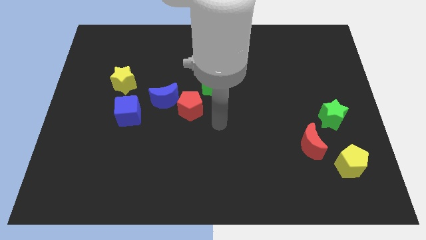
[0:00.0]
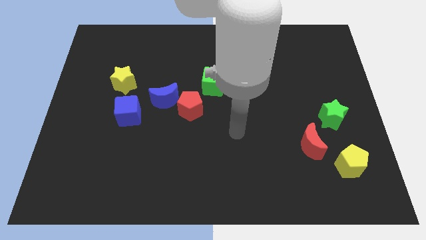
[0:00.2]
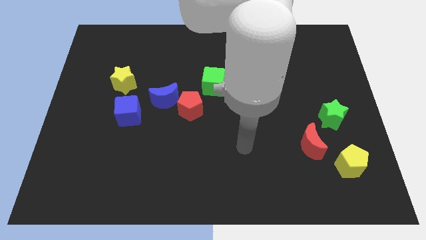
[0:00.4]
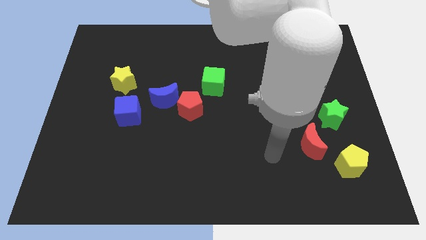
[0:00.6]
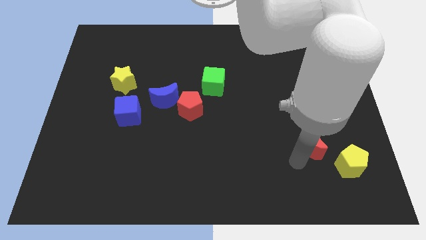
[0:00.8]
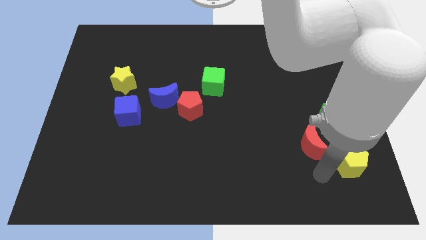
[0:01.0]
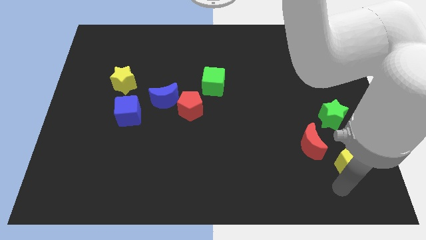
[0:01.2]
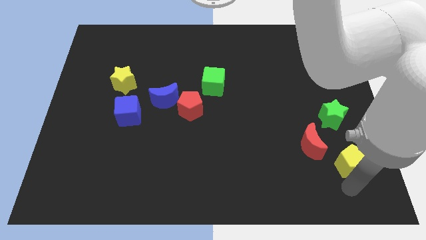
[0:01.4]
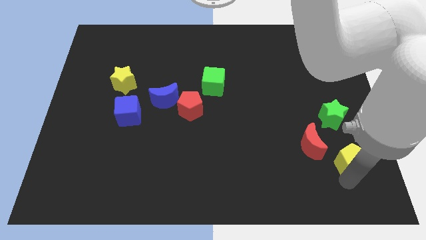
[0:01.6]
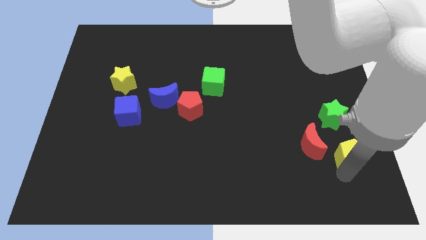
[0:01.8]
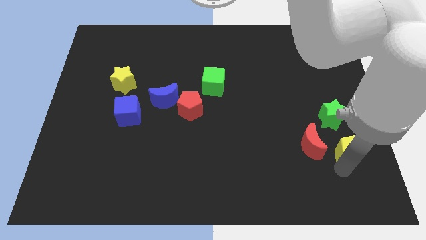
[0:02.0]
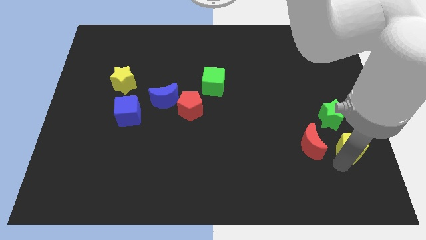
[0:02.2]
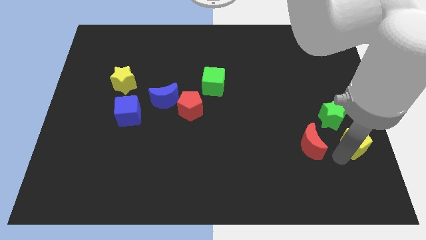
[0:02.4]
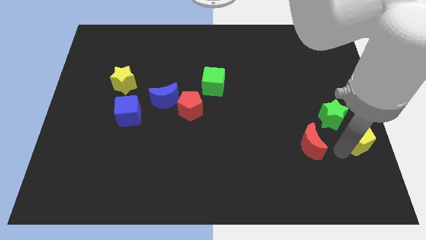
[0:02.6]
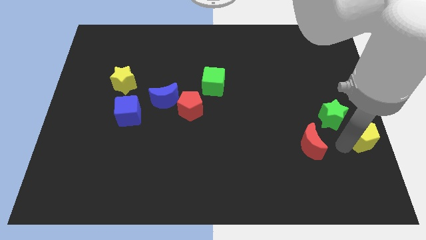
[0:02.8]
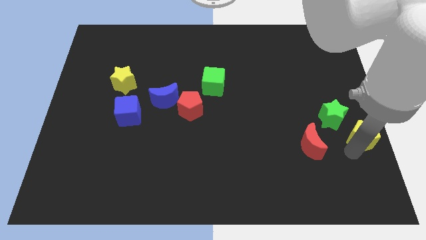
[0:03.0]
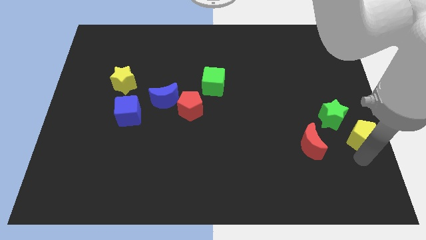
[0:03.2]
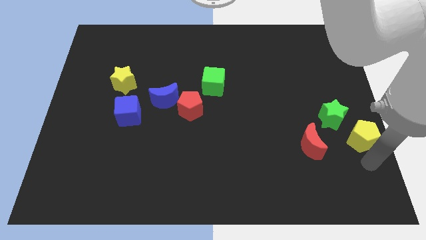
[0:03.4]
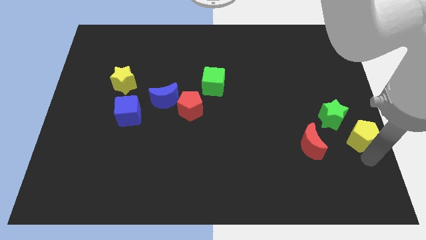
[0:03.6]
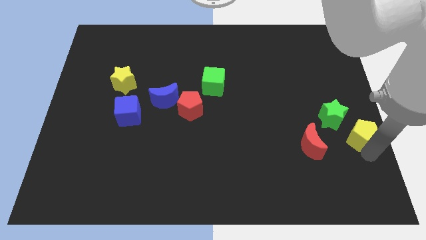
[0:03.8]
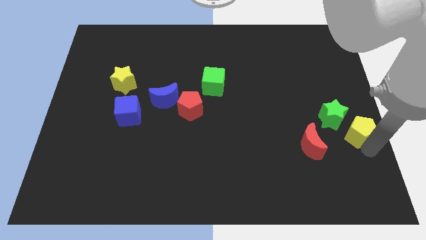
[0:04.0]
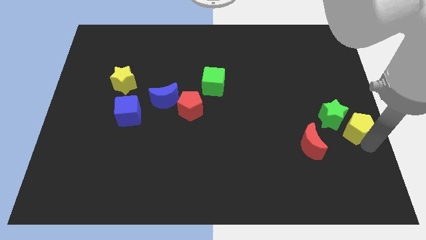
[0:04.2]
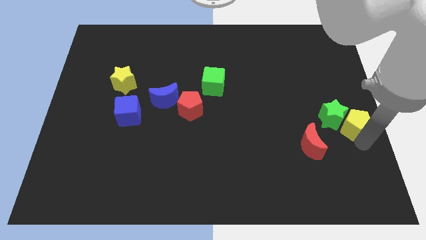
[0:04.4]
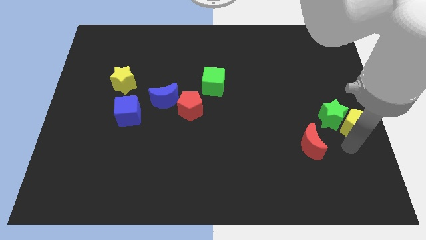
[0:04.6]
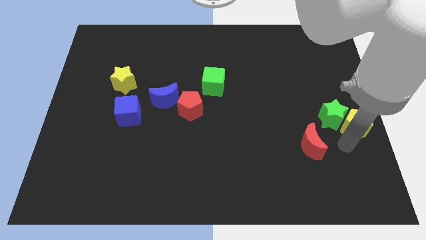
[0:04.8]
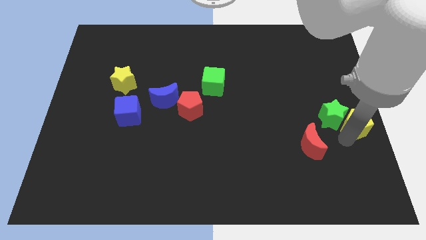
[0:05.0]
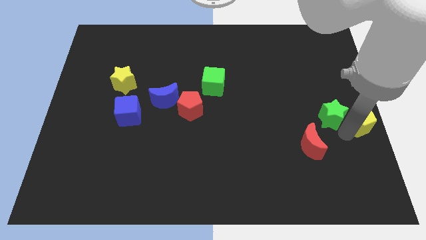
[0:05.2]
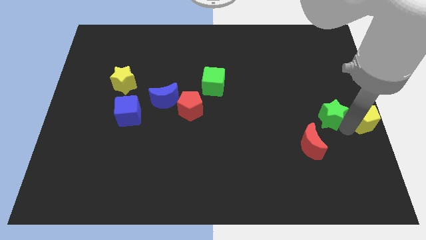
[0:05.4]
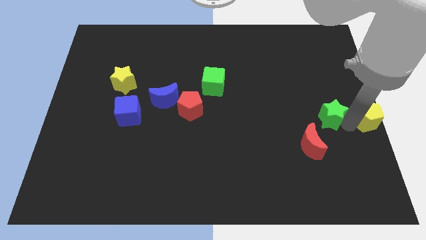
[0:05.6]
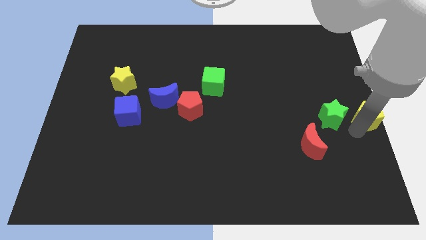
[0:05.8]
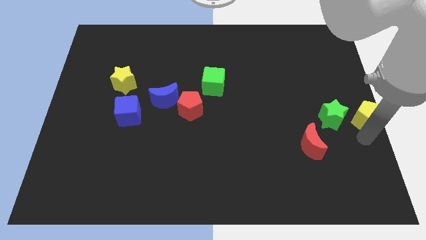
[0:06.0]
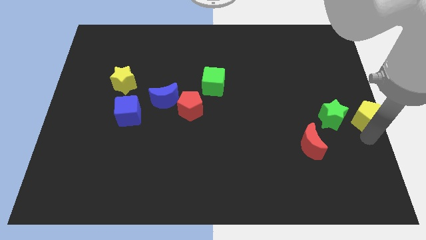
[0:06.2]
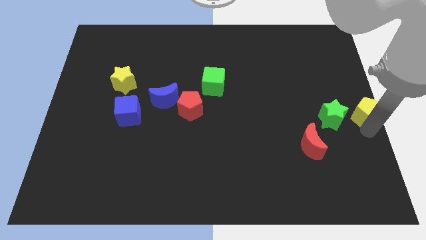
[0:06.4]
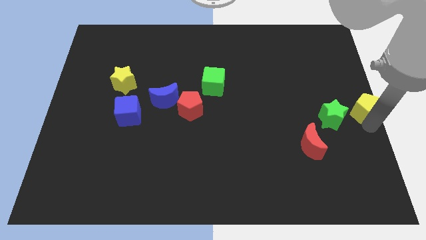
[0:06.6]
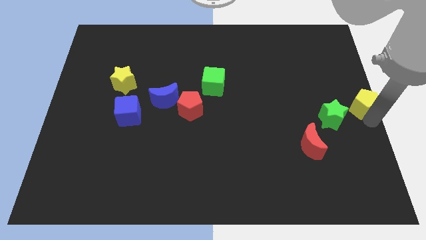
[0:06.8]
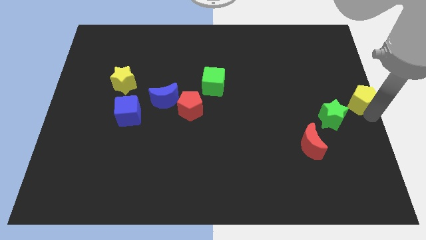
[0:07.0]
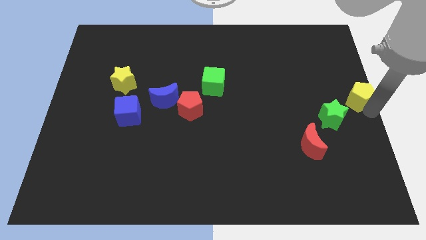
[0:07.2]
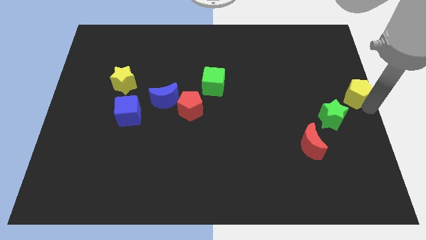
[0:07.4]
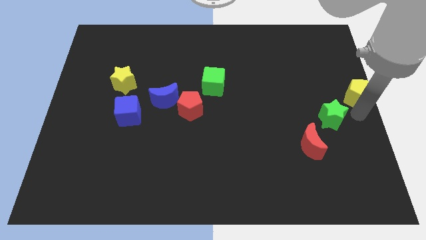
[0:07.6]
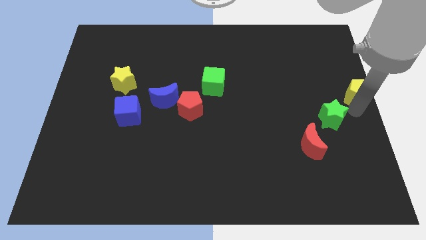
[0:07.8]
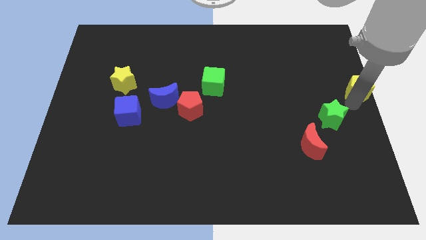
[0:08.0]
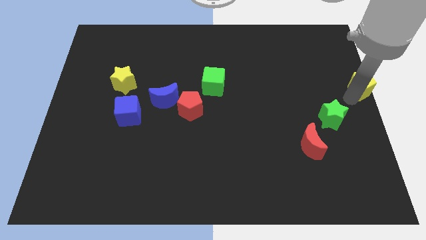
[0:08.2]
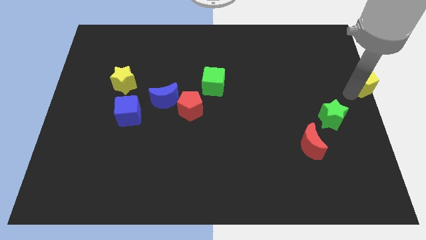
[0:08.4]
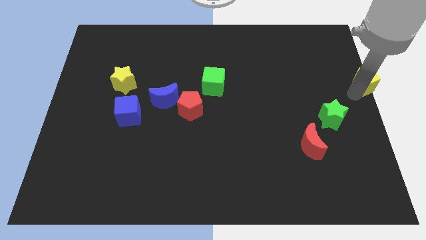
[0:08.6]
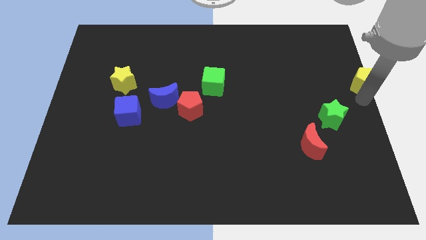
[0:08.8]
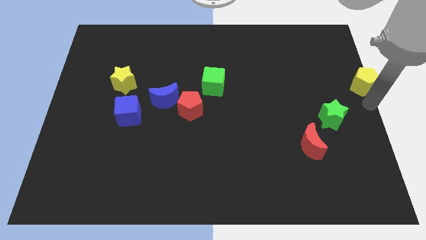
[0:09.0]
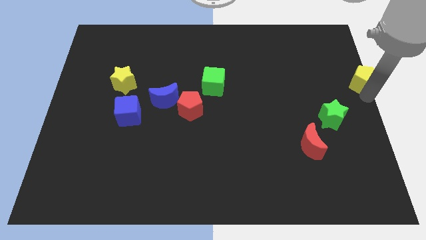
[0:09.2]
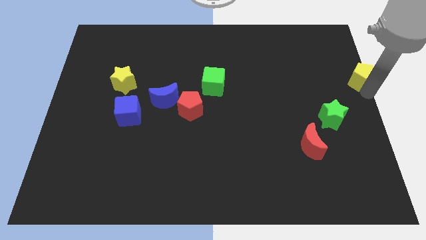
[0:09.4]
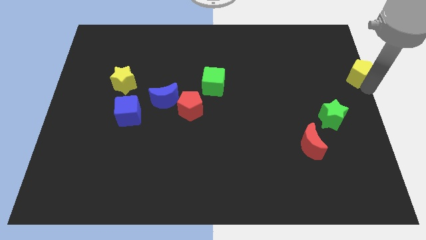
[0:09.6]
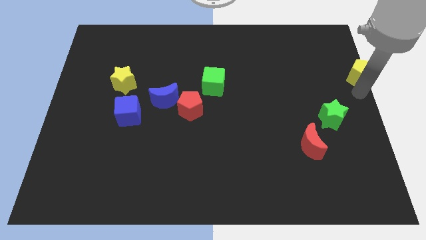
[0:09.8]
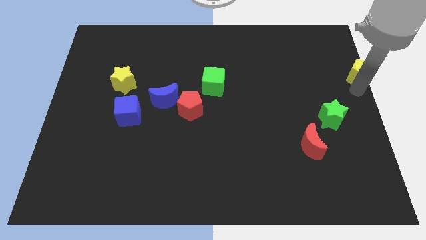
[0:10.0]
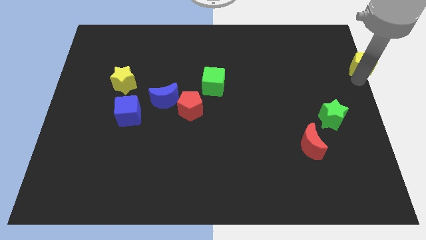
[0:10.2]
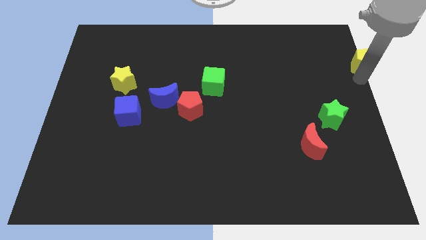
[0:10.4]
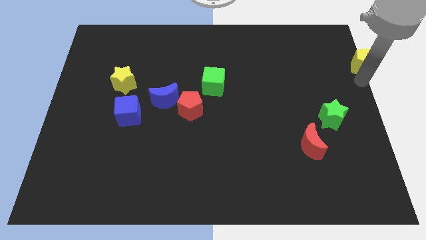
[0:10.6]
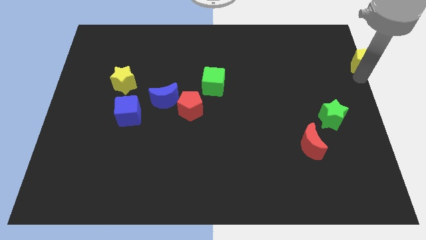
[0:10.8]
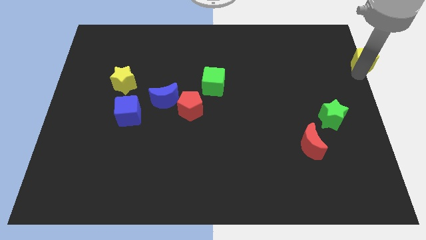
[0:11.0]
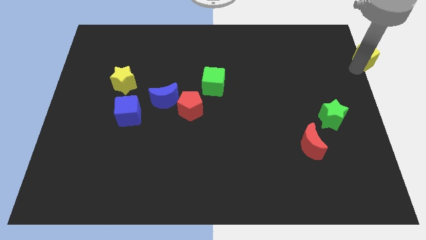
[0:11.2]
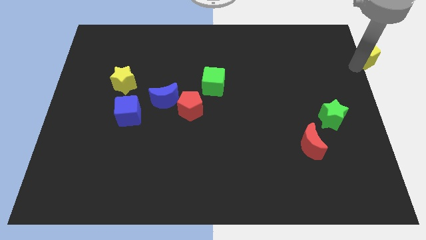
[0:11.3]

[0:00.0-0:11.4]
slide the yellow pentagon to the top right
